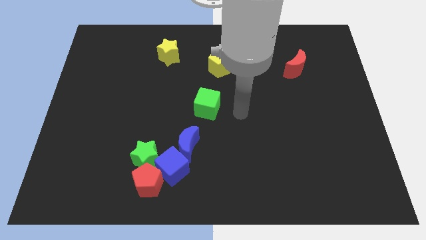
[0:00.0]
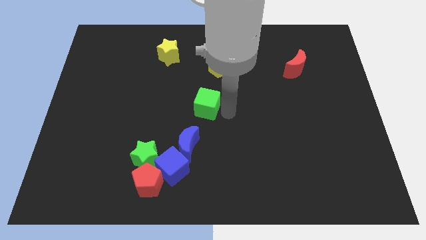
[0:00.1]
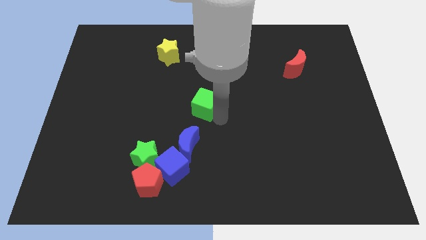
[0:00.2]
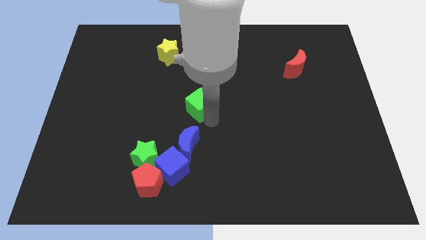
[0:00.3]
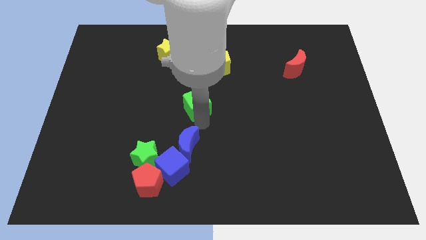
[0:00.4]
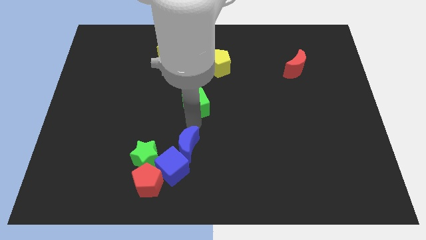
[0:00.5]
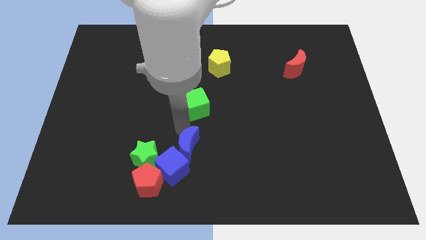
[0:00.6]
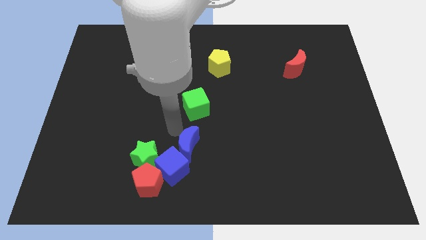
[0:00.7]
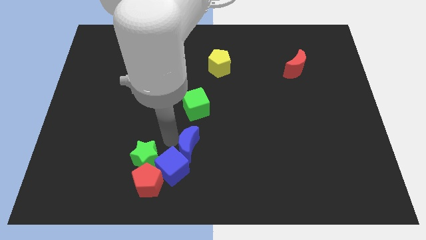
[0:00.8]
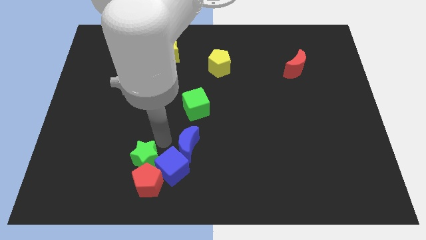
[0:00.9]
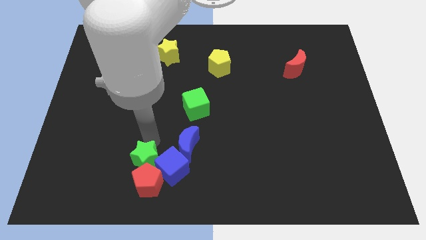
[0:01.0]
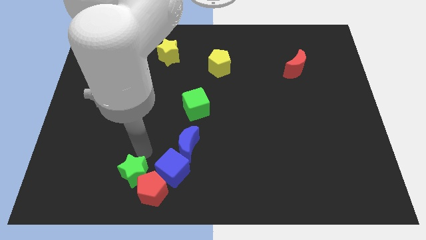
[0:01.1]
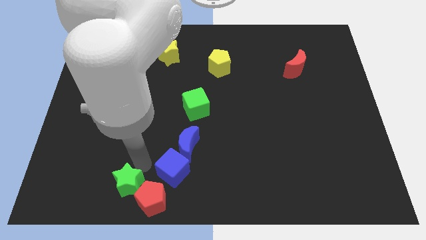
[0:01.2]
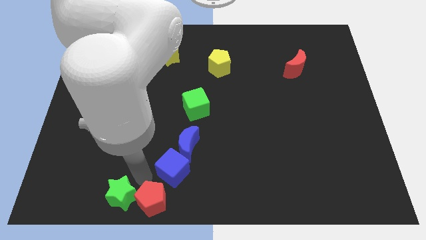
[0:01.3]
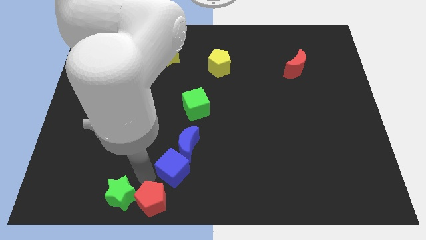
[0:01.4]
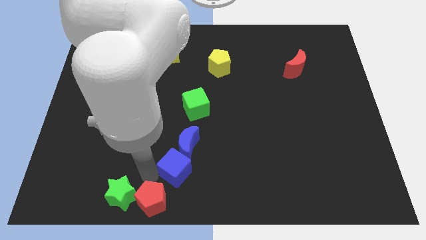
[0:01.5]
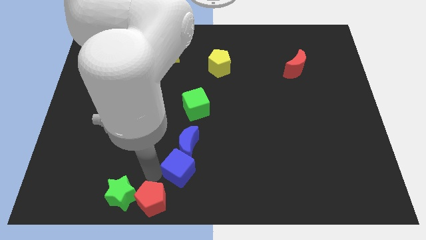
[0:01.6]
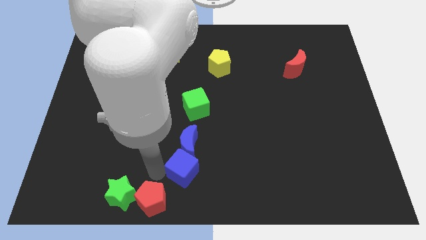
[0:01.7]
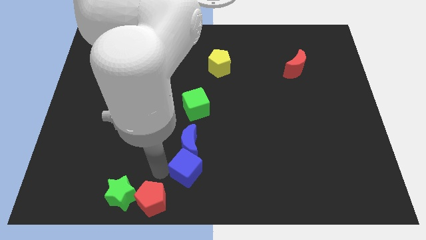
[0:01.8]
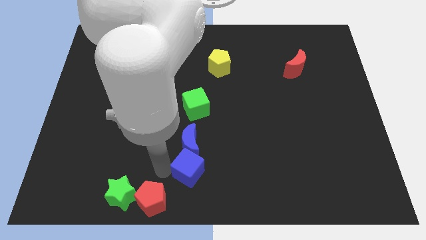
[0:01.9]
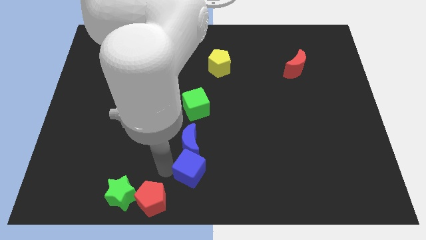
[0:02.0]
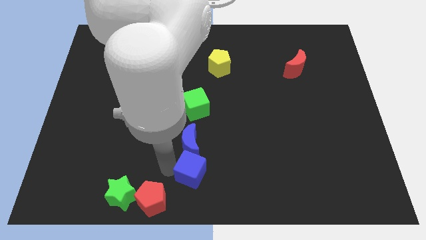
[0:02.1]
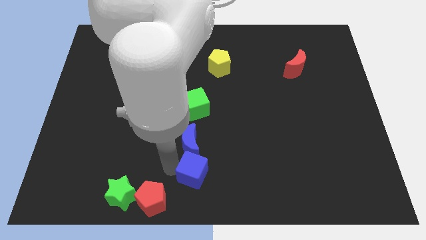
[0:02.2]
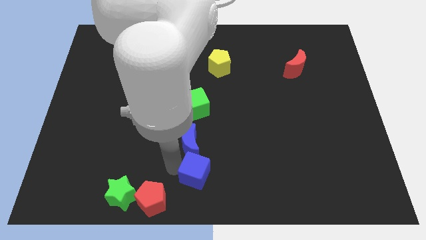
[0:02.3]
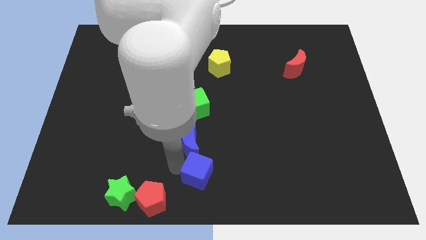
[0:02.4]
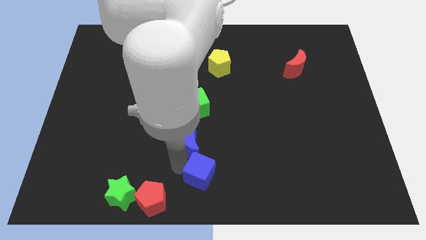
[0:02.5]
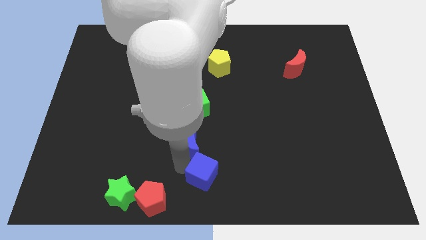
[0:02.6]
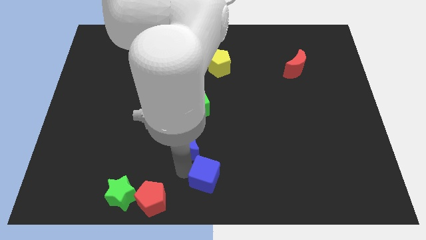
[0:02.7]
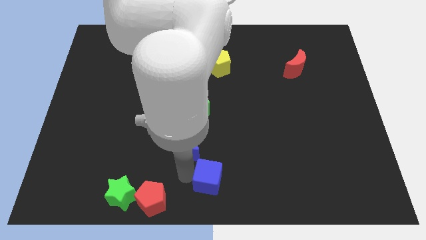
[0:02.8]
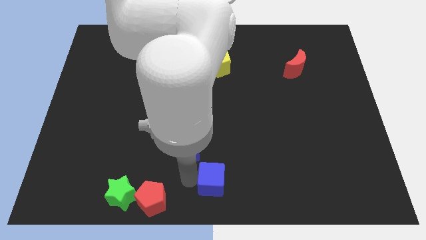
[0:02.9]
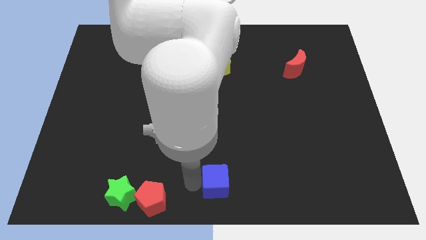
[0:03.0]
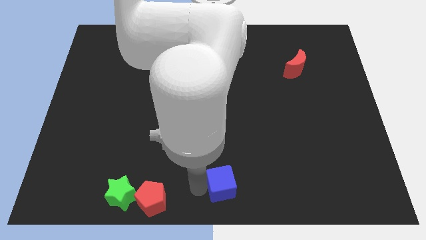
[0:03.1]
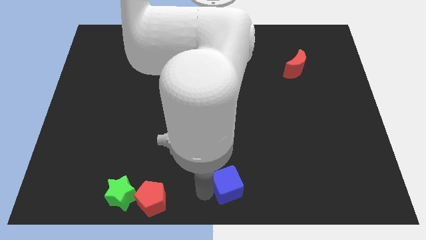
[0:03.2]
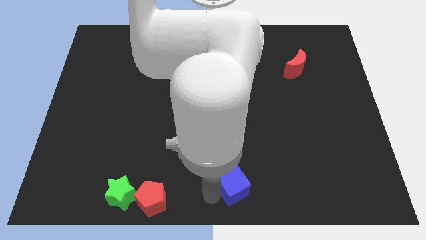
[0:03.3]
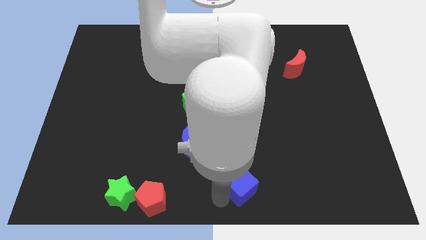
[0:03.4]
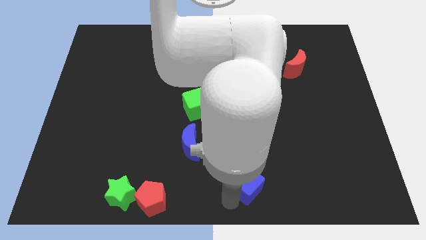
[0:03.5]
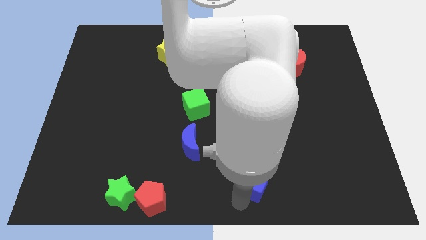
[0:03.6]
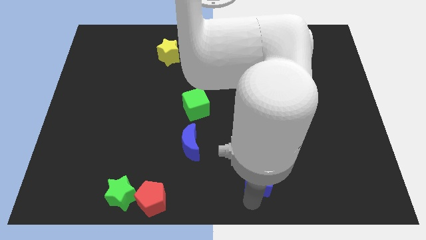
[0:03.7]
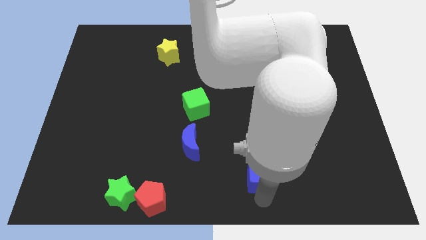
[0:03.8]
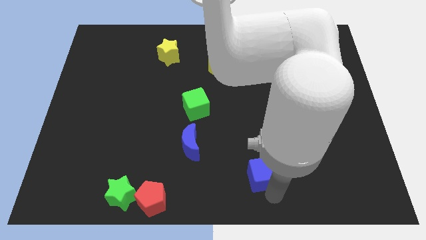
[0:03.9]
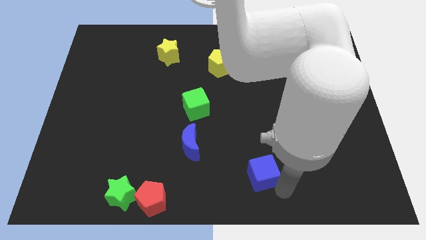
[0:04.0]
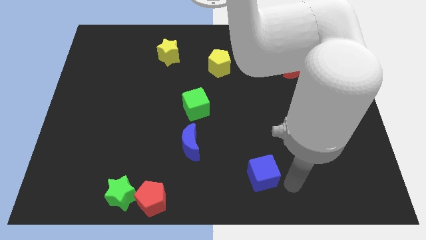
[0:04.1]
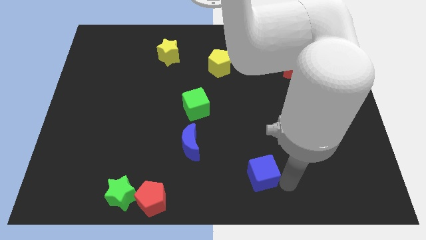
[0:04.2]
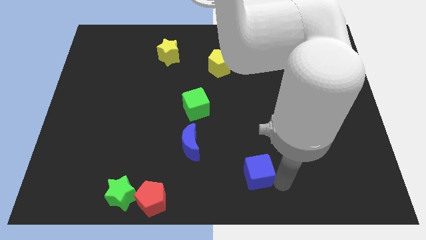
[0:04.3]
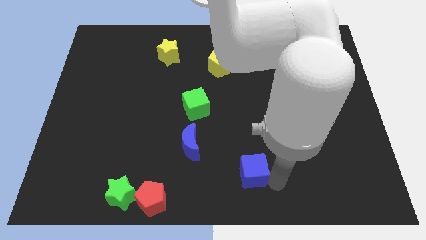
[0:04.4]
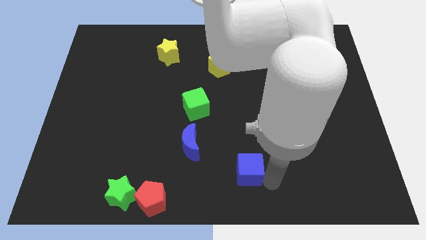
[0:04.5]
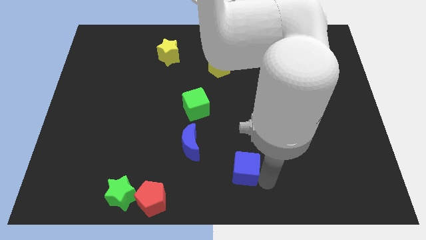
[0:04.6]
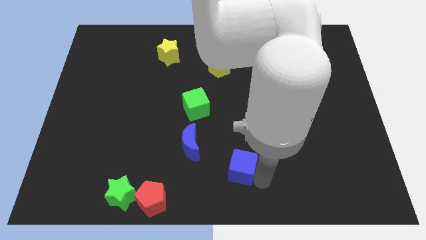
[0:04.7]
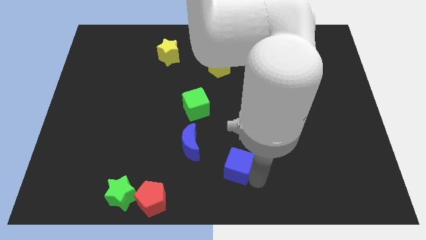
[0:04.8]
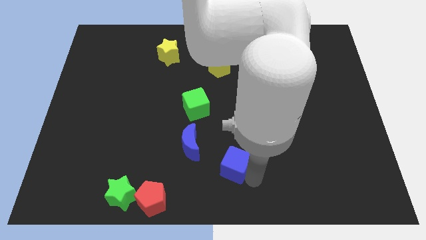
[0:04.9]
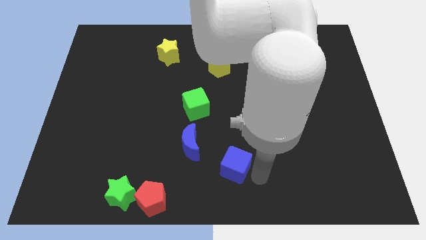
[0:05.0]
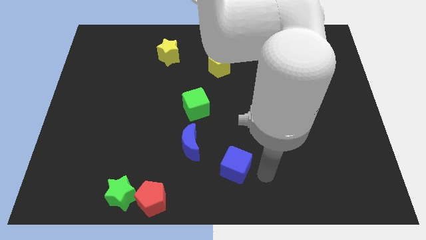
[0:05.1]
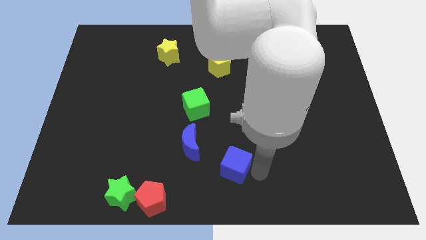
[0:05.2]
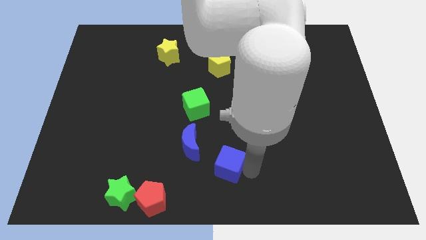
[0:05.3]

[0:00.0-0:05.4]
push the blue cube to the right of the blue moon

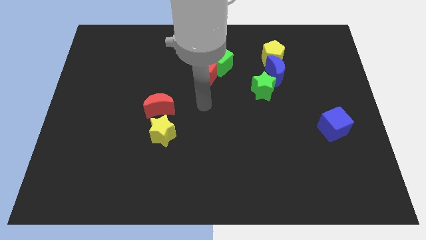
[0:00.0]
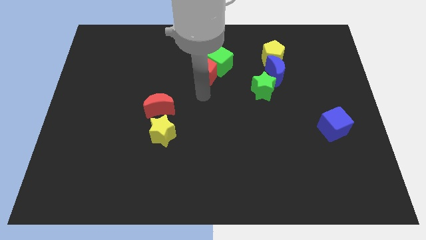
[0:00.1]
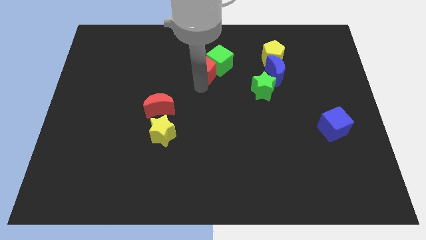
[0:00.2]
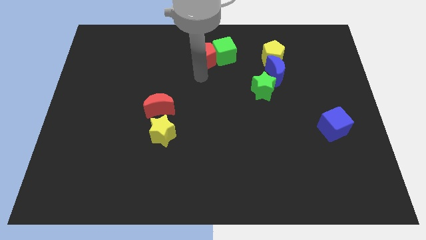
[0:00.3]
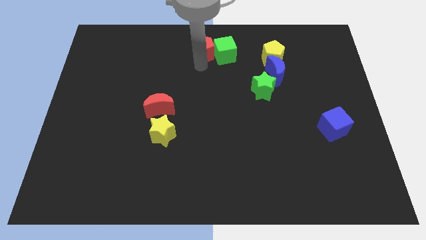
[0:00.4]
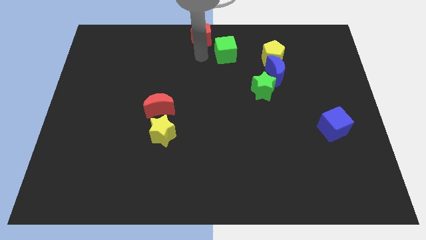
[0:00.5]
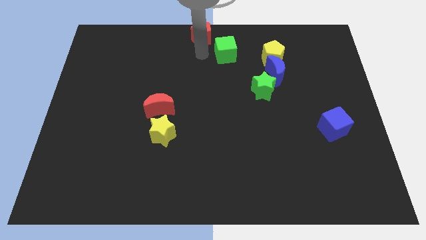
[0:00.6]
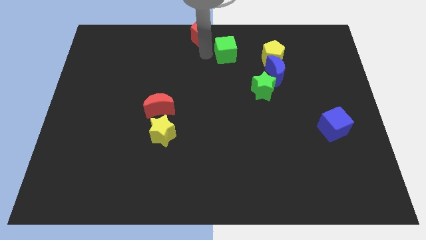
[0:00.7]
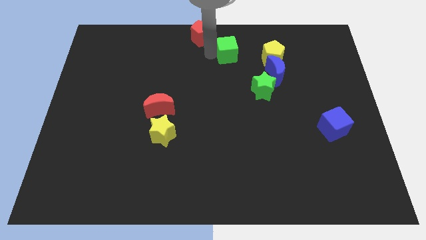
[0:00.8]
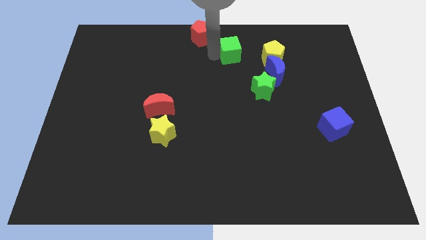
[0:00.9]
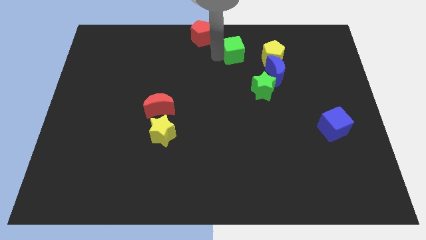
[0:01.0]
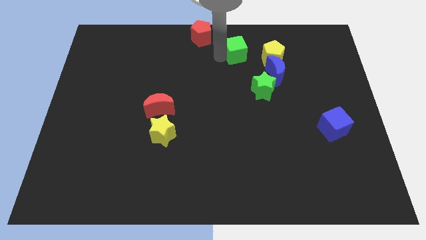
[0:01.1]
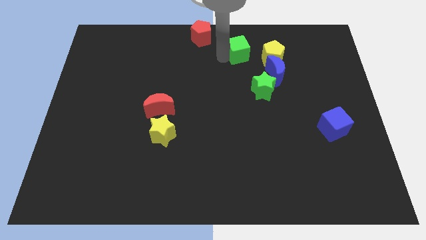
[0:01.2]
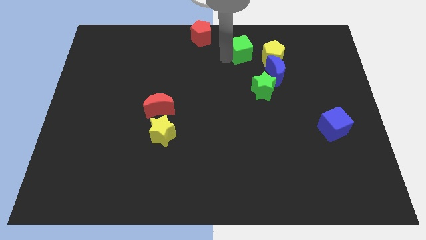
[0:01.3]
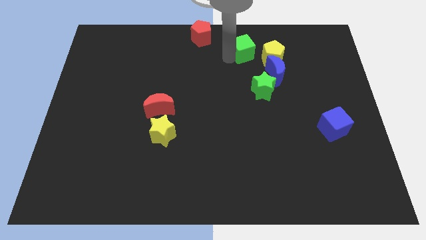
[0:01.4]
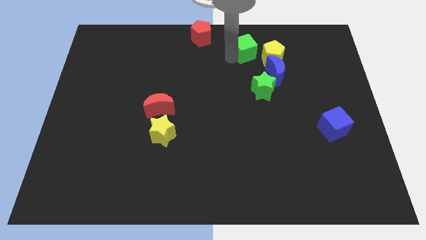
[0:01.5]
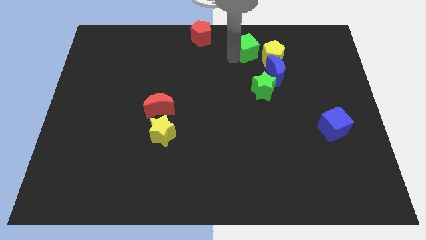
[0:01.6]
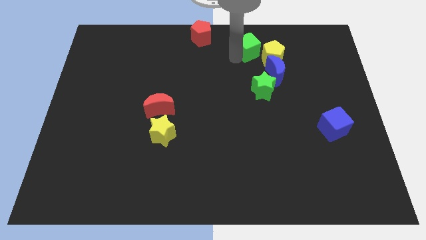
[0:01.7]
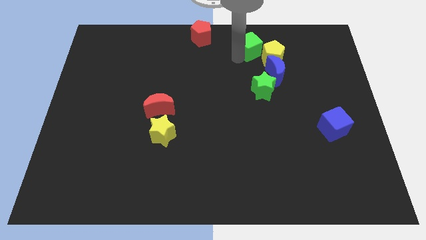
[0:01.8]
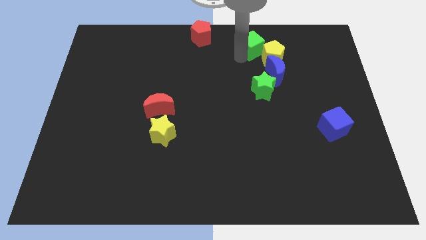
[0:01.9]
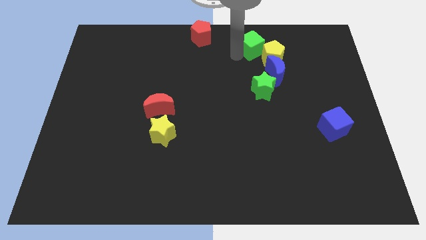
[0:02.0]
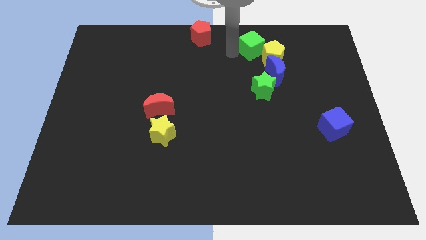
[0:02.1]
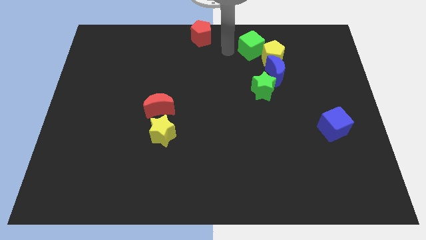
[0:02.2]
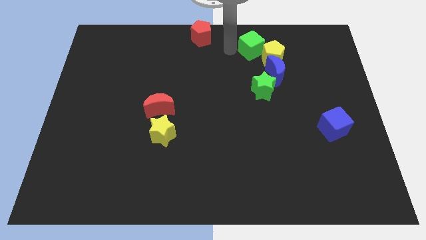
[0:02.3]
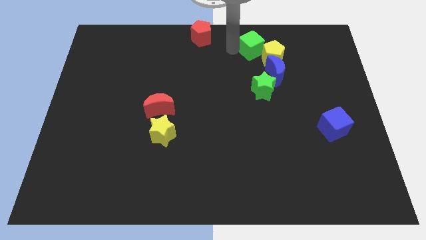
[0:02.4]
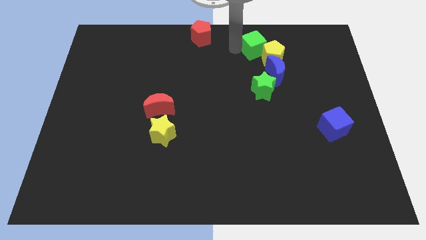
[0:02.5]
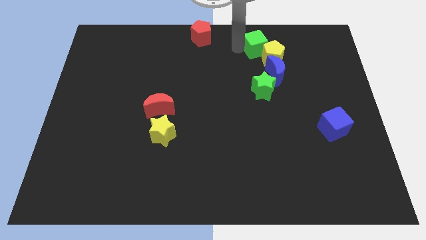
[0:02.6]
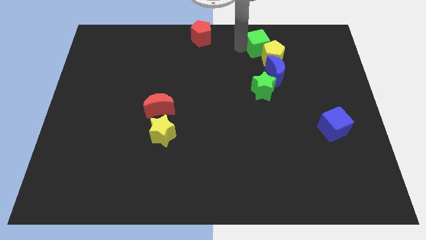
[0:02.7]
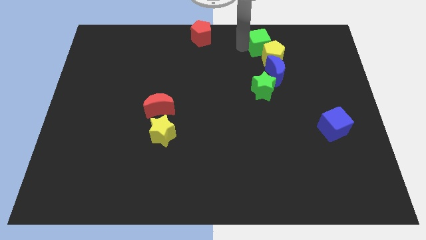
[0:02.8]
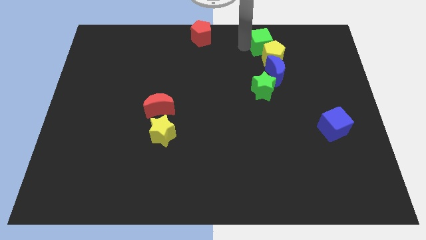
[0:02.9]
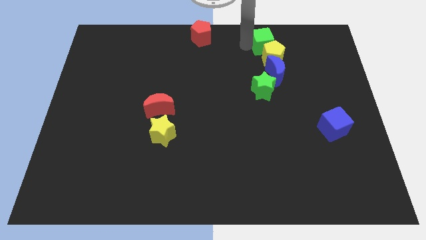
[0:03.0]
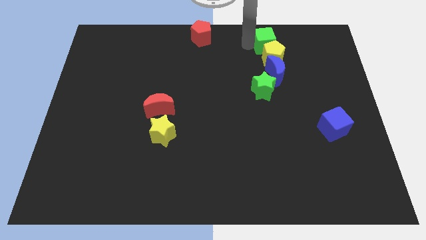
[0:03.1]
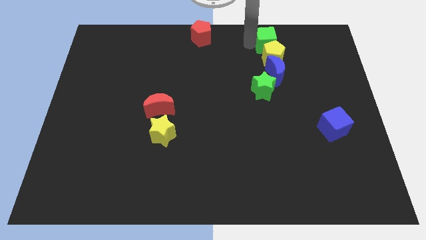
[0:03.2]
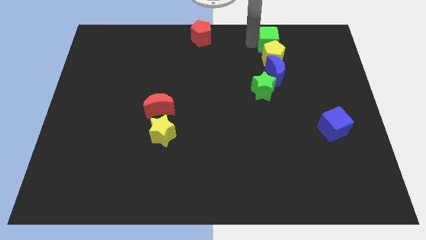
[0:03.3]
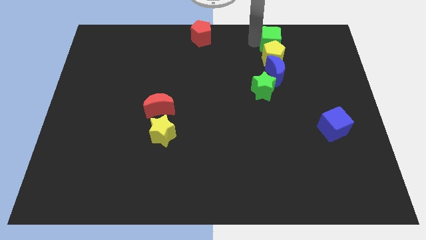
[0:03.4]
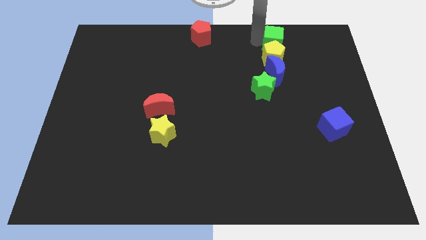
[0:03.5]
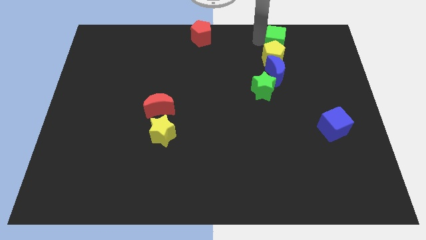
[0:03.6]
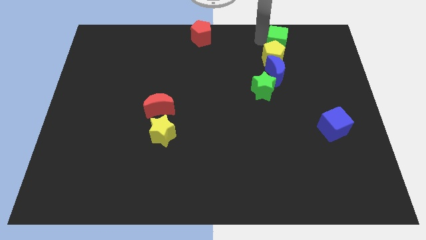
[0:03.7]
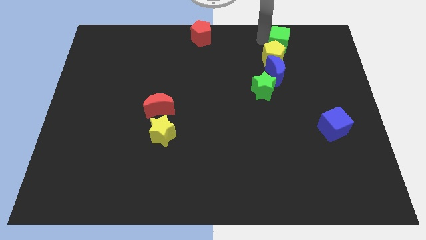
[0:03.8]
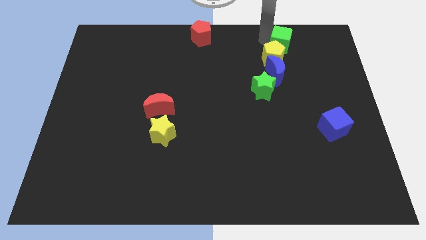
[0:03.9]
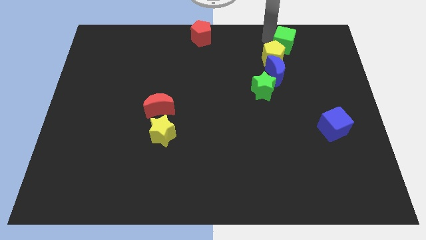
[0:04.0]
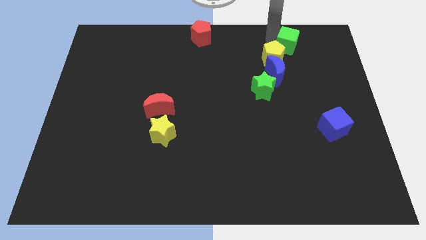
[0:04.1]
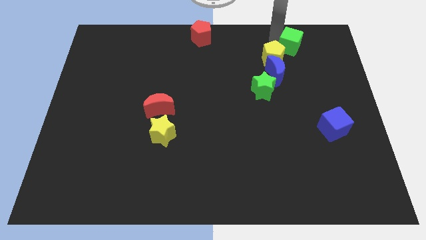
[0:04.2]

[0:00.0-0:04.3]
put the green cube to the right side of the yellow pentagon
